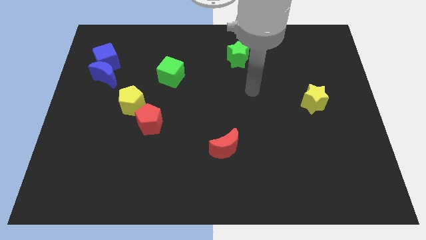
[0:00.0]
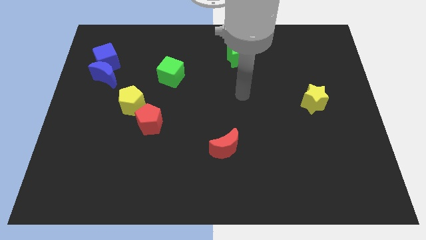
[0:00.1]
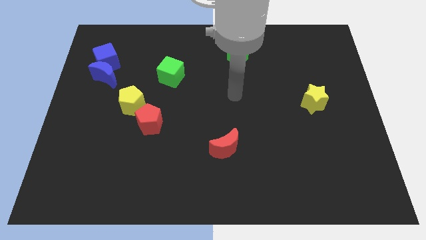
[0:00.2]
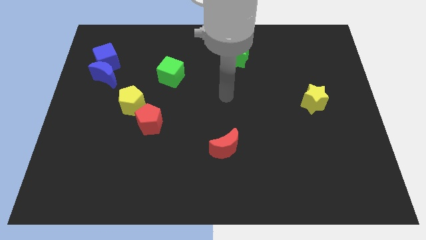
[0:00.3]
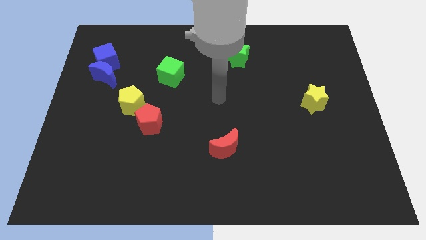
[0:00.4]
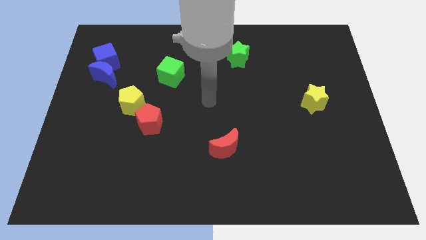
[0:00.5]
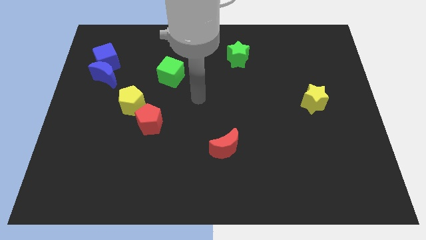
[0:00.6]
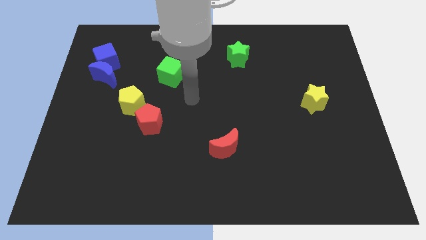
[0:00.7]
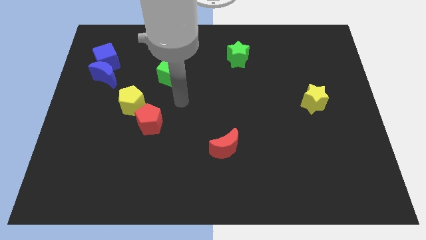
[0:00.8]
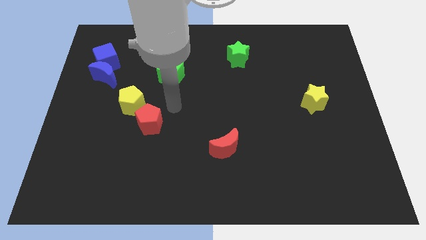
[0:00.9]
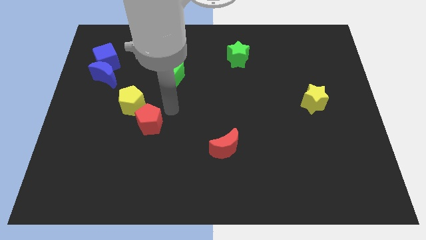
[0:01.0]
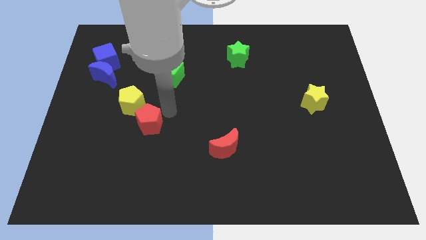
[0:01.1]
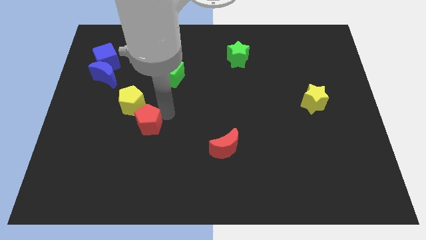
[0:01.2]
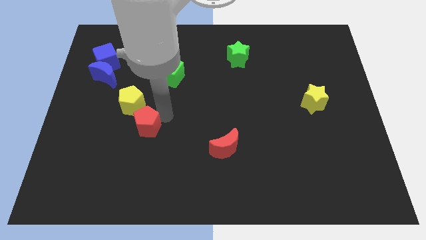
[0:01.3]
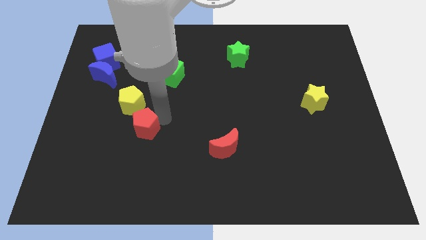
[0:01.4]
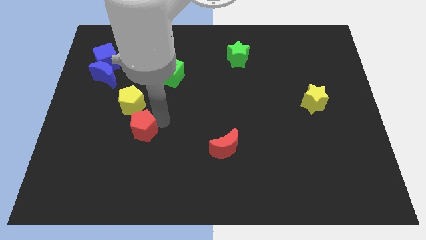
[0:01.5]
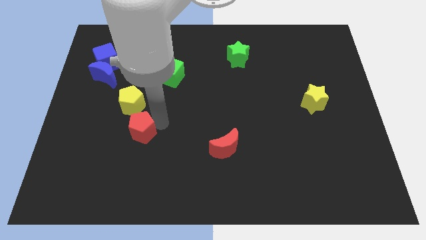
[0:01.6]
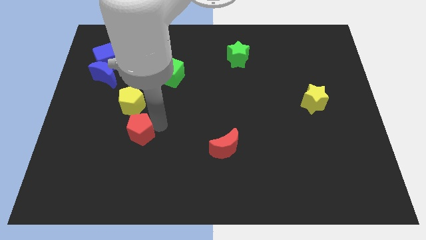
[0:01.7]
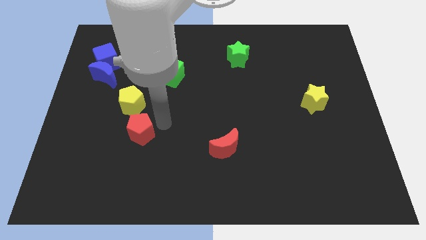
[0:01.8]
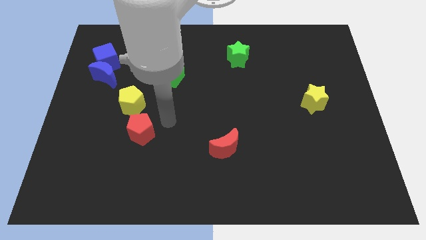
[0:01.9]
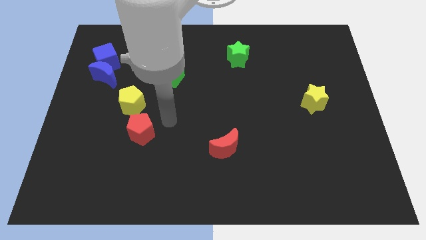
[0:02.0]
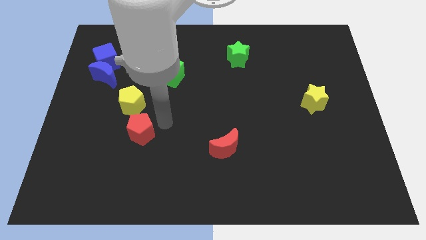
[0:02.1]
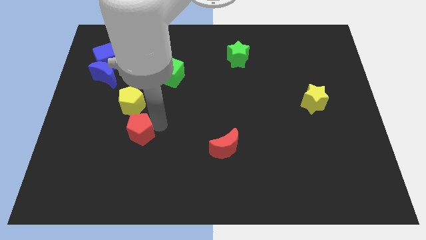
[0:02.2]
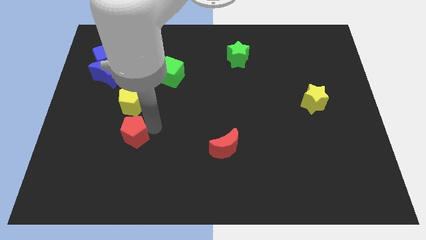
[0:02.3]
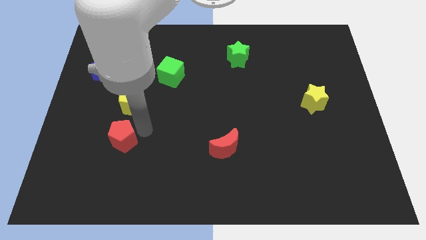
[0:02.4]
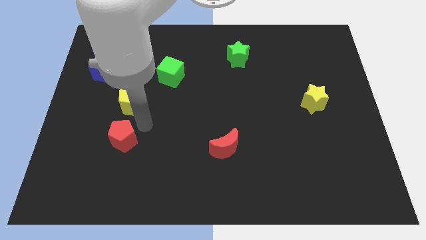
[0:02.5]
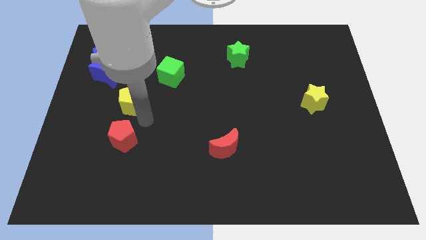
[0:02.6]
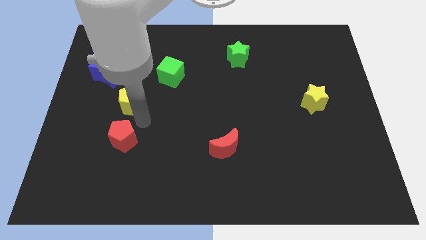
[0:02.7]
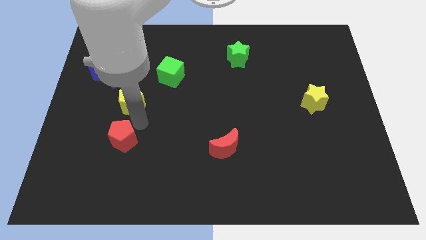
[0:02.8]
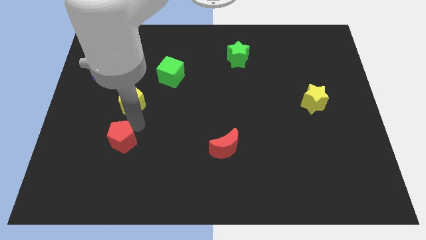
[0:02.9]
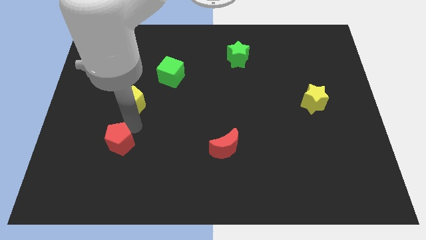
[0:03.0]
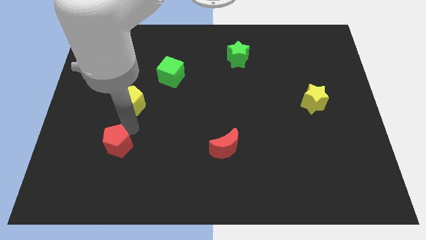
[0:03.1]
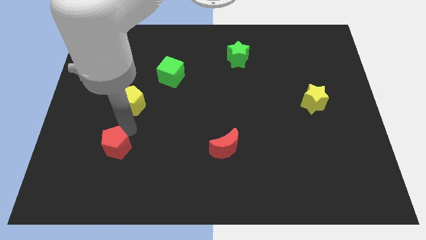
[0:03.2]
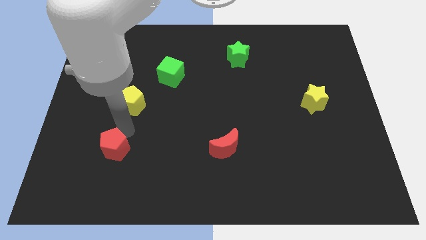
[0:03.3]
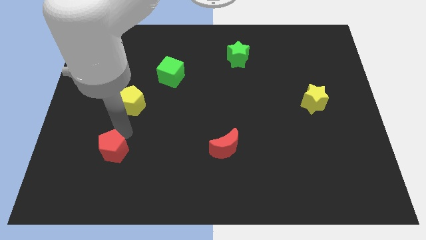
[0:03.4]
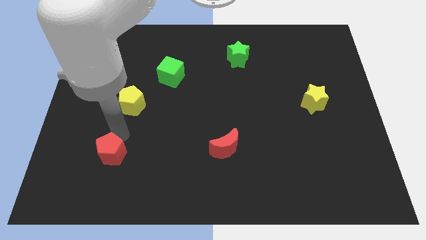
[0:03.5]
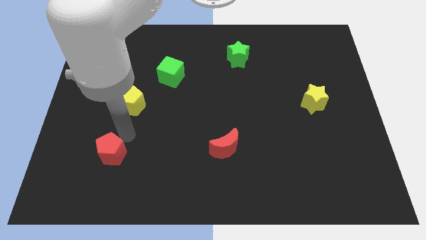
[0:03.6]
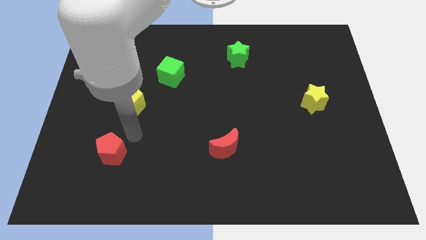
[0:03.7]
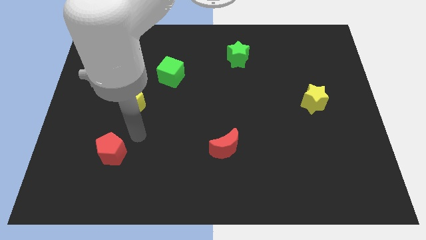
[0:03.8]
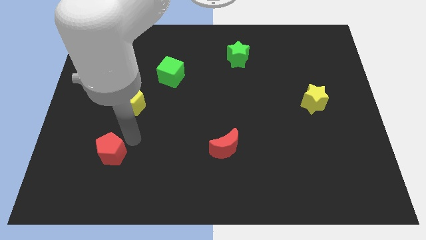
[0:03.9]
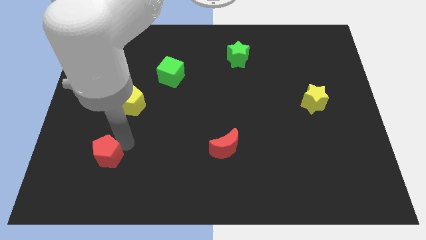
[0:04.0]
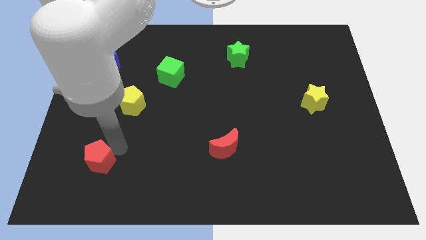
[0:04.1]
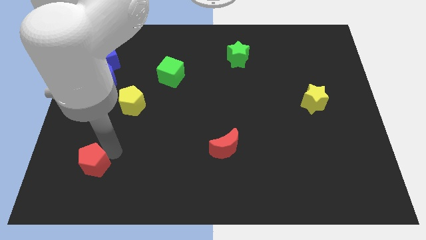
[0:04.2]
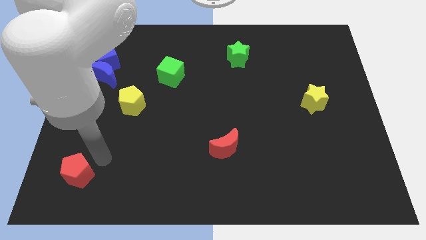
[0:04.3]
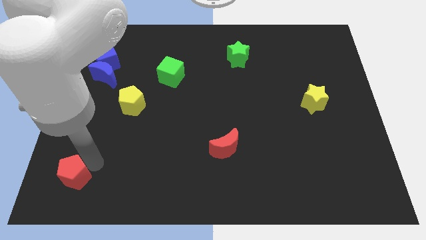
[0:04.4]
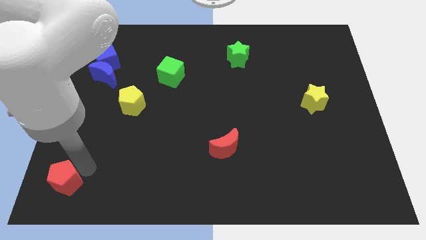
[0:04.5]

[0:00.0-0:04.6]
push the red pentagon to the bottom left

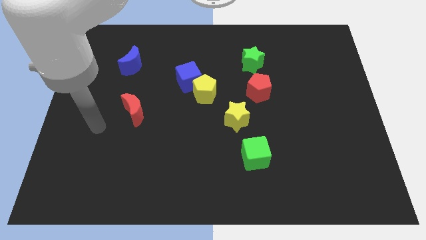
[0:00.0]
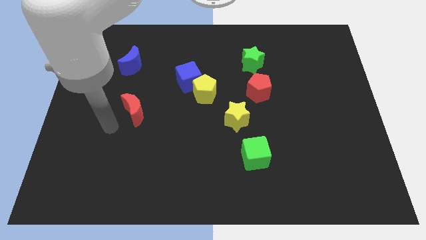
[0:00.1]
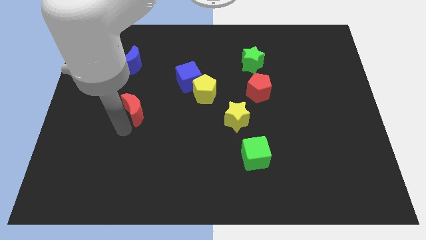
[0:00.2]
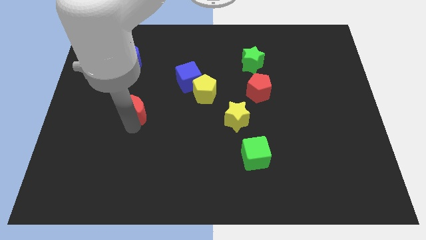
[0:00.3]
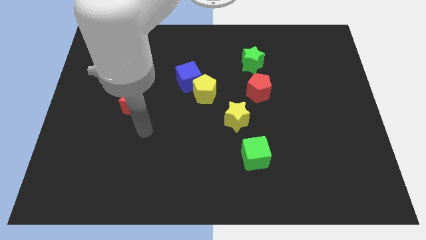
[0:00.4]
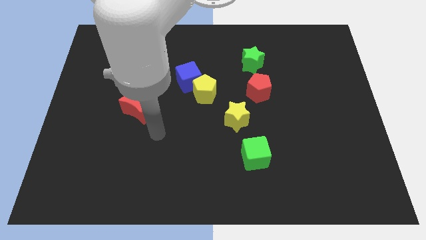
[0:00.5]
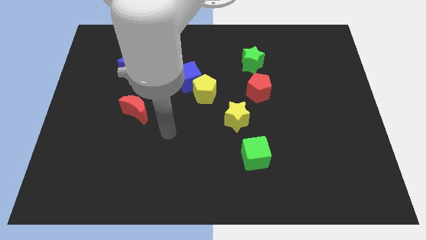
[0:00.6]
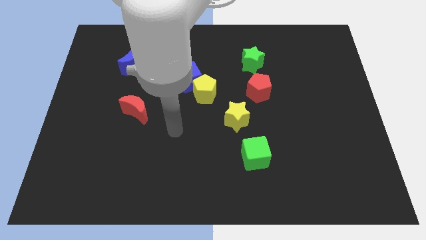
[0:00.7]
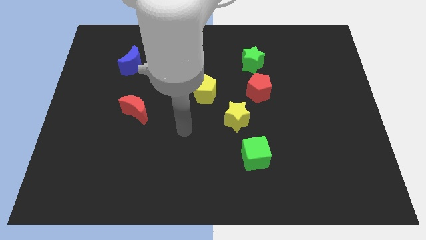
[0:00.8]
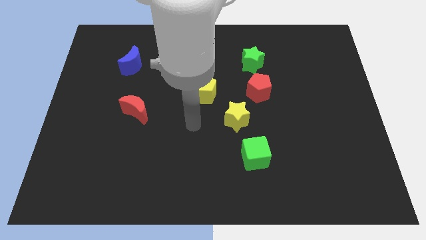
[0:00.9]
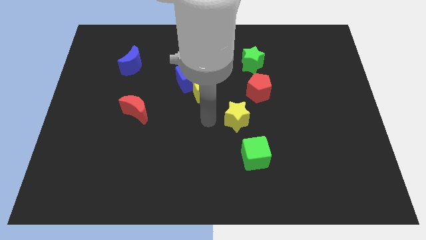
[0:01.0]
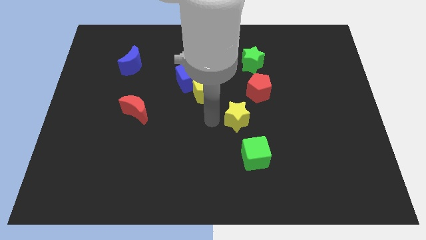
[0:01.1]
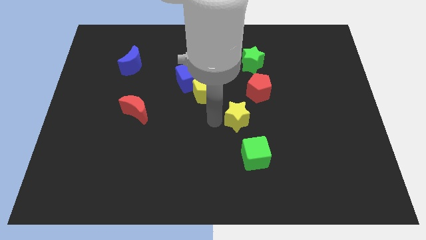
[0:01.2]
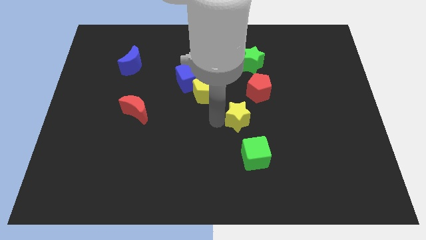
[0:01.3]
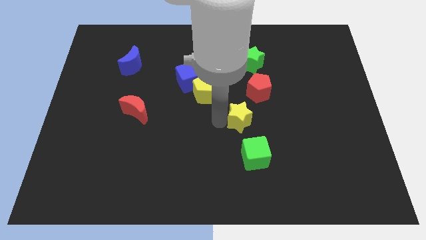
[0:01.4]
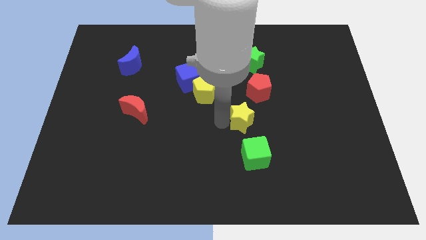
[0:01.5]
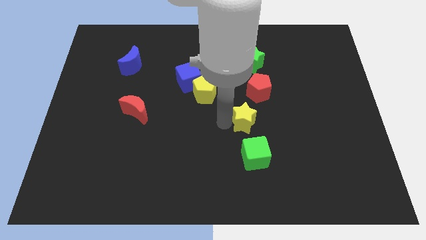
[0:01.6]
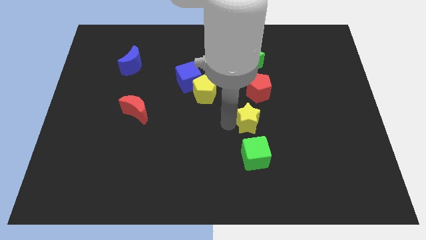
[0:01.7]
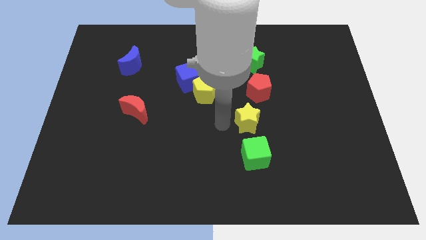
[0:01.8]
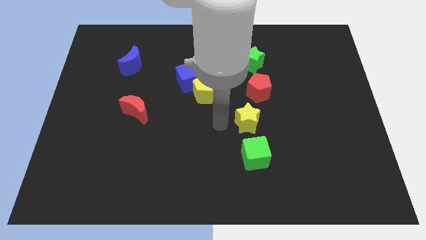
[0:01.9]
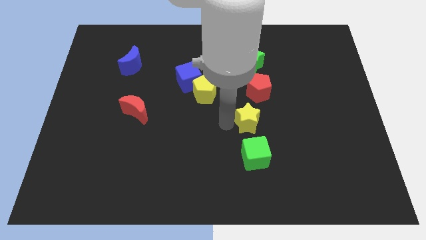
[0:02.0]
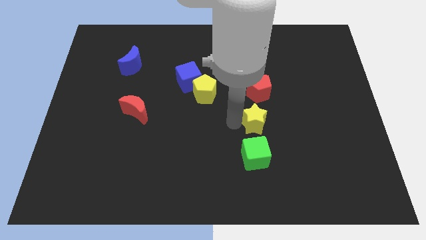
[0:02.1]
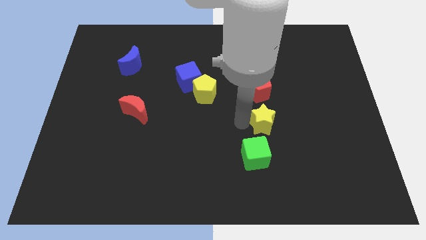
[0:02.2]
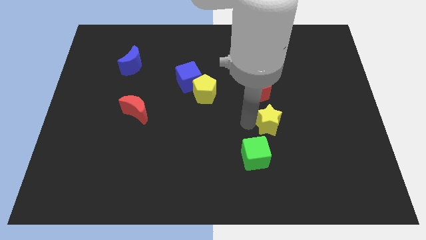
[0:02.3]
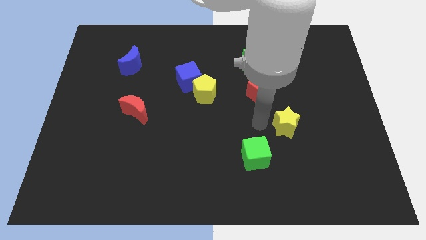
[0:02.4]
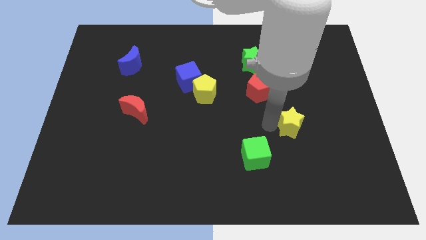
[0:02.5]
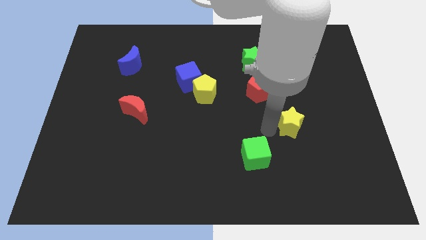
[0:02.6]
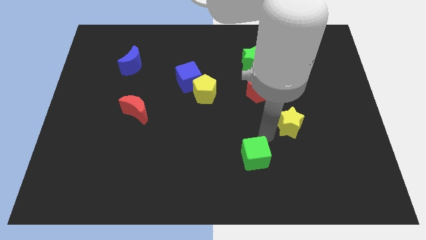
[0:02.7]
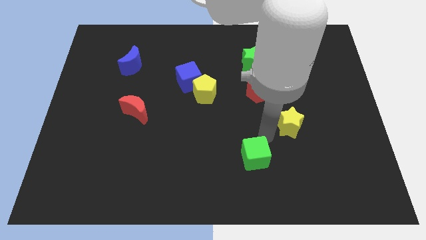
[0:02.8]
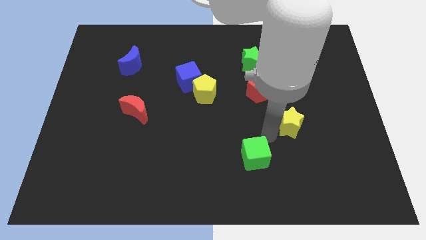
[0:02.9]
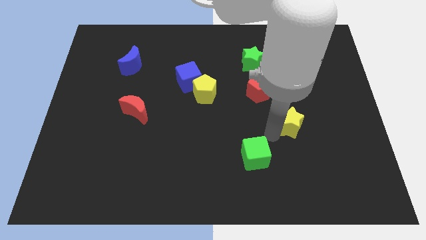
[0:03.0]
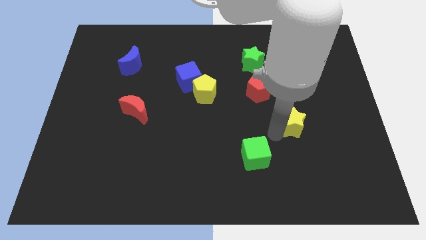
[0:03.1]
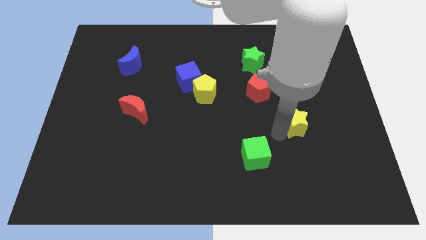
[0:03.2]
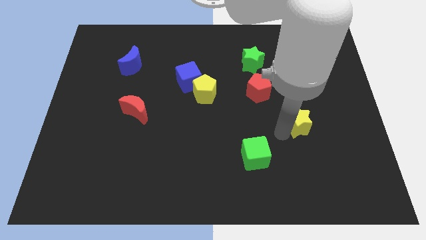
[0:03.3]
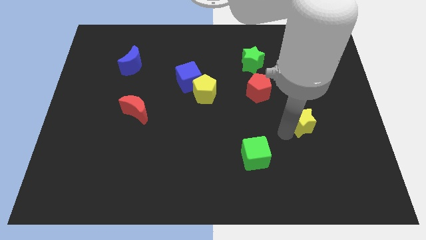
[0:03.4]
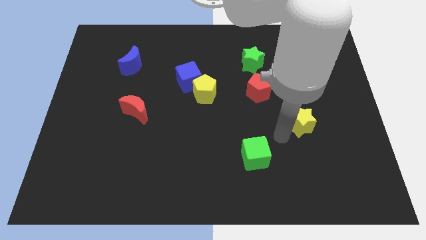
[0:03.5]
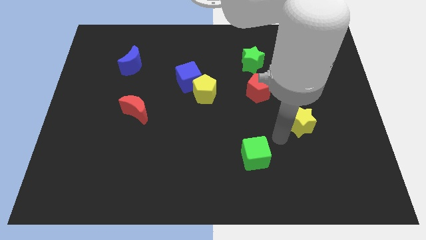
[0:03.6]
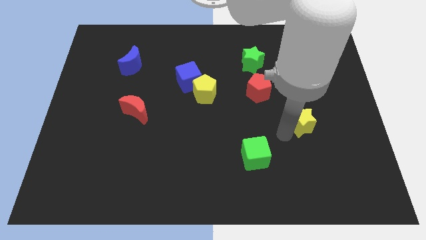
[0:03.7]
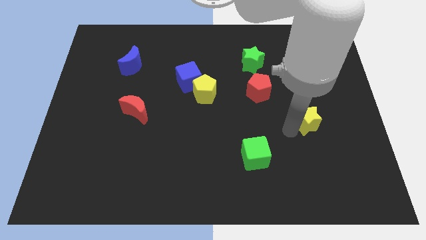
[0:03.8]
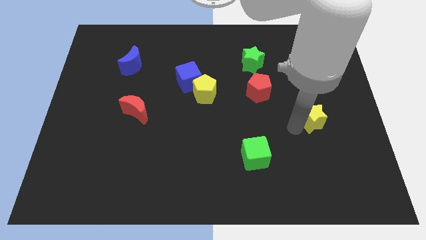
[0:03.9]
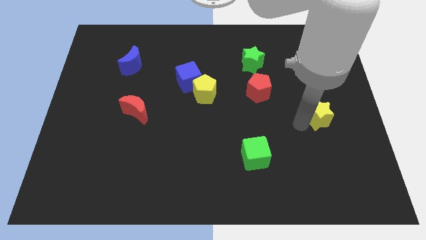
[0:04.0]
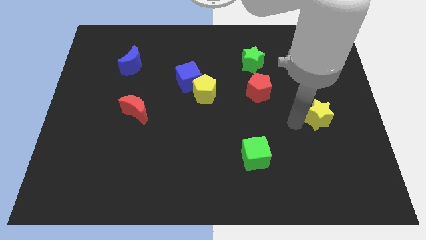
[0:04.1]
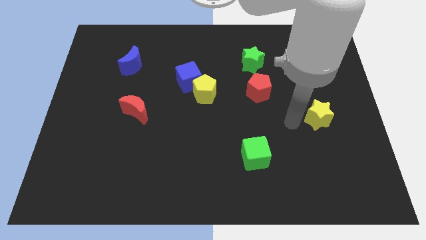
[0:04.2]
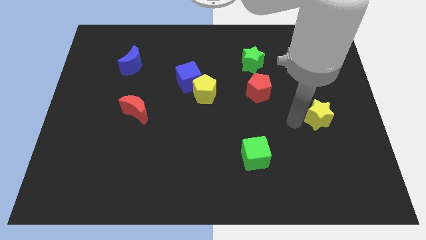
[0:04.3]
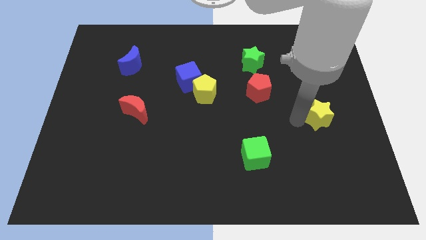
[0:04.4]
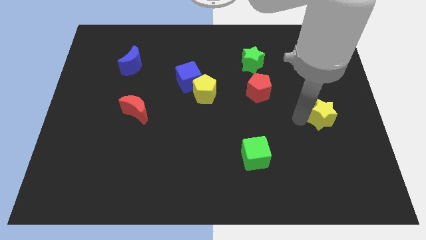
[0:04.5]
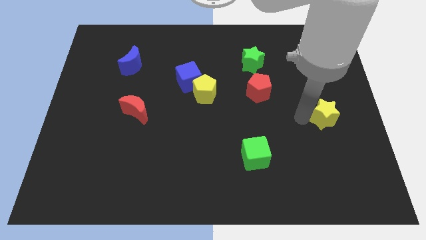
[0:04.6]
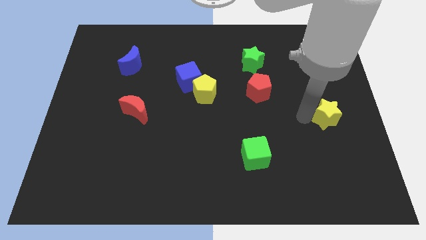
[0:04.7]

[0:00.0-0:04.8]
push the yellow star to the right side of the board
